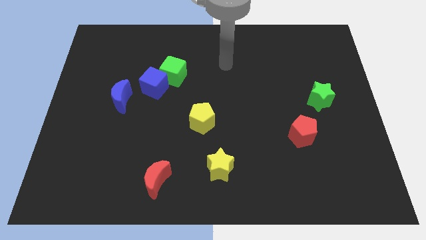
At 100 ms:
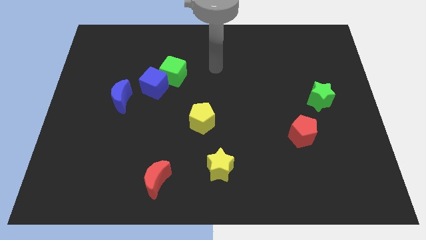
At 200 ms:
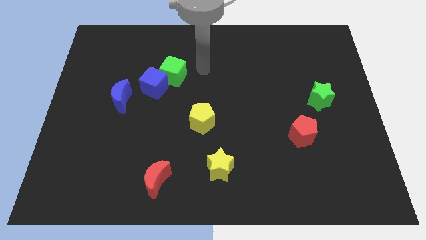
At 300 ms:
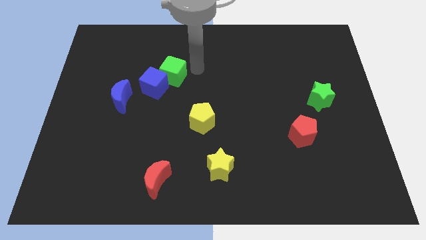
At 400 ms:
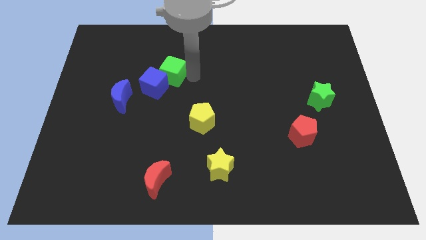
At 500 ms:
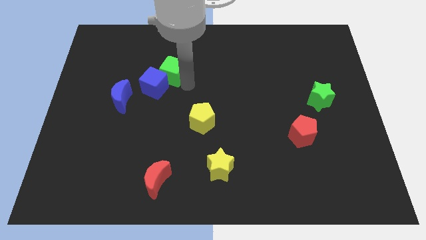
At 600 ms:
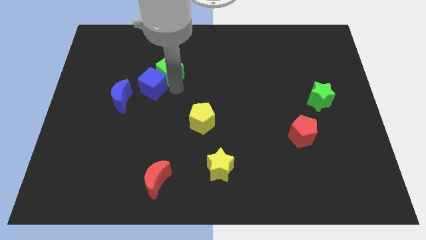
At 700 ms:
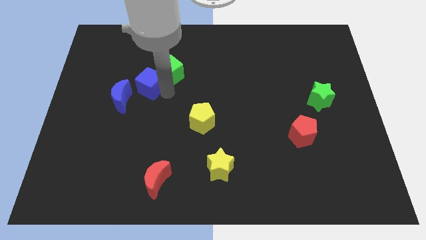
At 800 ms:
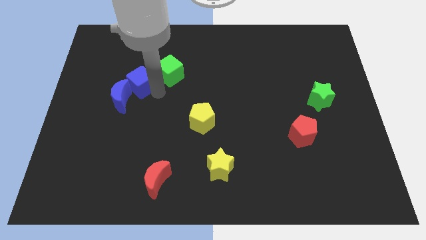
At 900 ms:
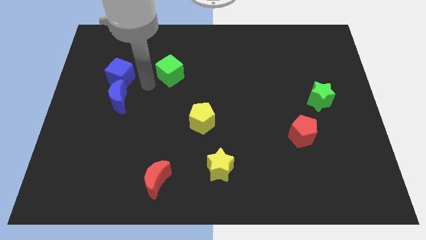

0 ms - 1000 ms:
move the green cube away from the blue cube

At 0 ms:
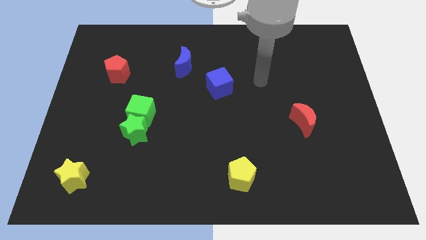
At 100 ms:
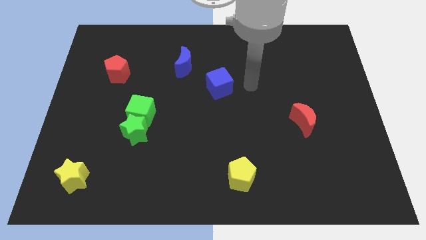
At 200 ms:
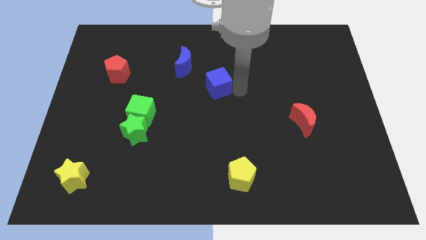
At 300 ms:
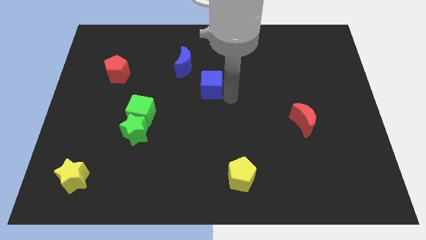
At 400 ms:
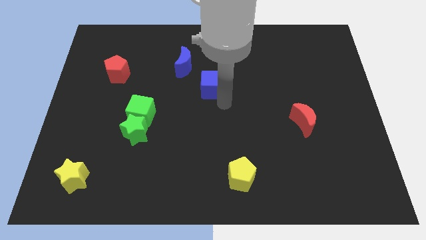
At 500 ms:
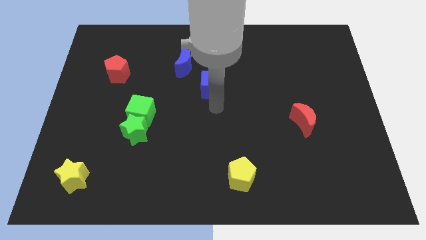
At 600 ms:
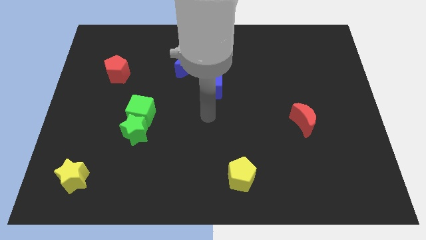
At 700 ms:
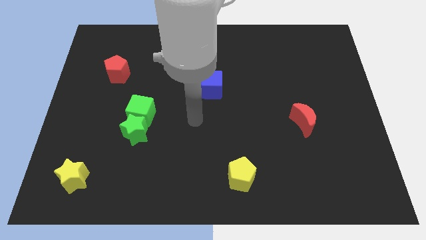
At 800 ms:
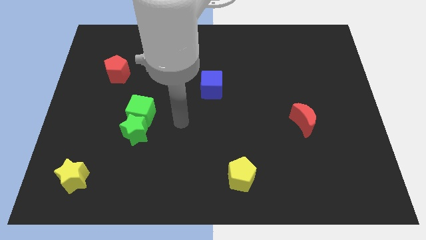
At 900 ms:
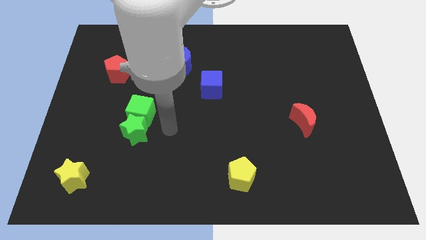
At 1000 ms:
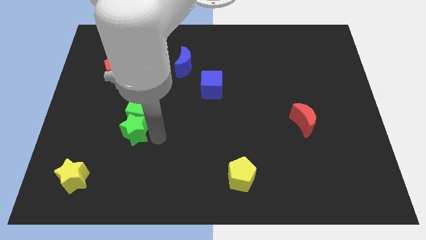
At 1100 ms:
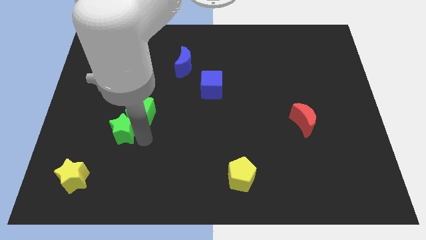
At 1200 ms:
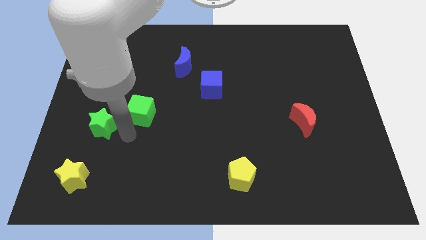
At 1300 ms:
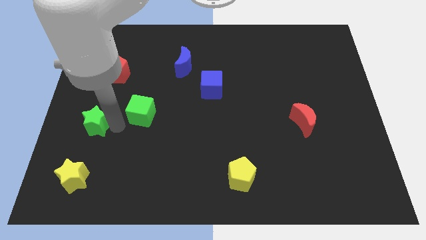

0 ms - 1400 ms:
pull the green cube apart from the green star

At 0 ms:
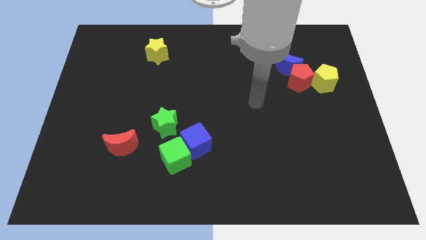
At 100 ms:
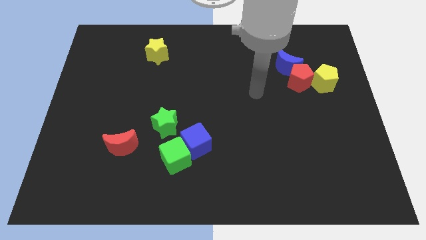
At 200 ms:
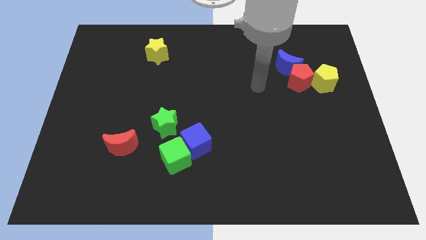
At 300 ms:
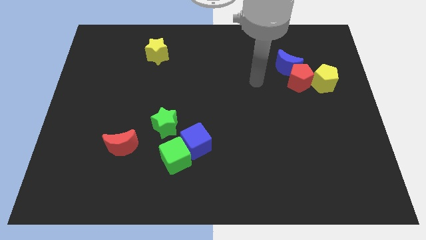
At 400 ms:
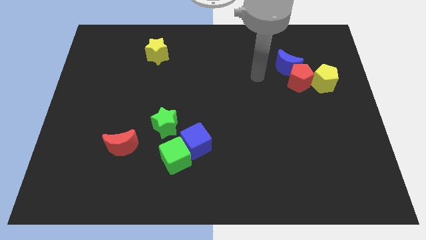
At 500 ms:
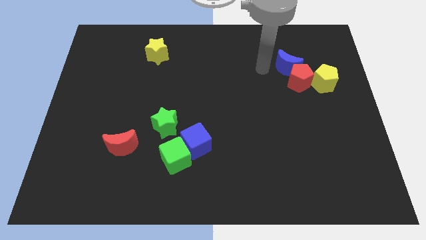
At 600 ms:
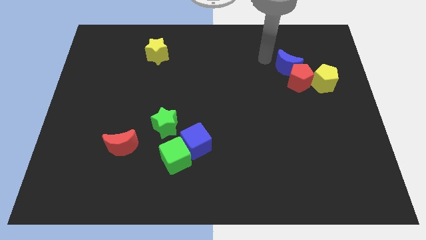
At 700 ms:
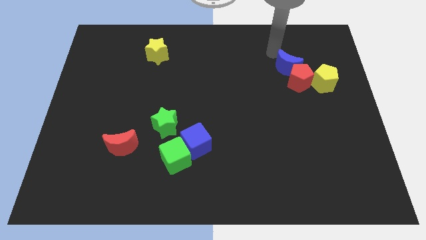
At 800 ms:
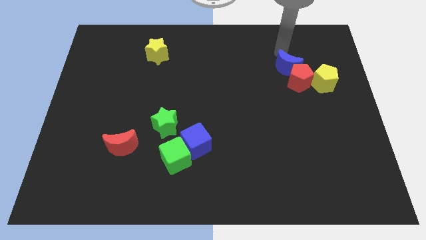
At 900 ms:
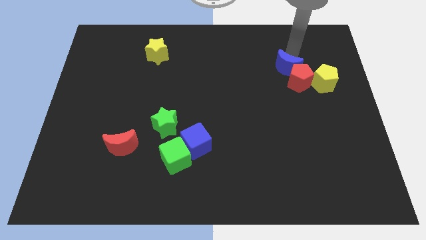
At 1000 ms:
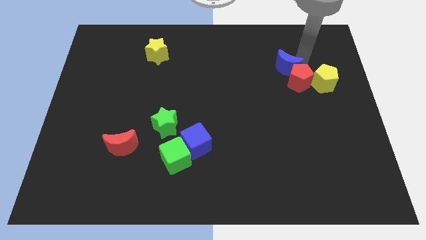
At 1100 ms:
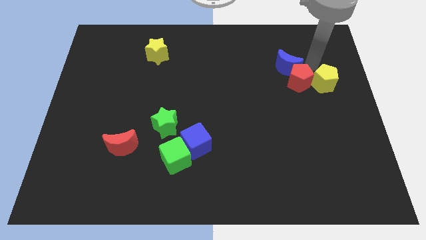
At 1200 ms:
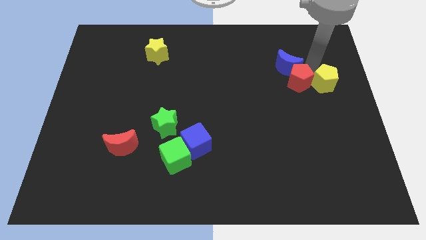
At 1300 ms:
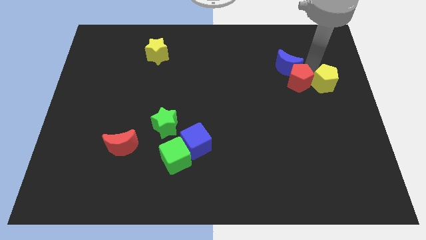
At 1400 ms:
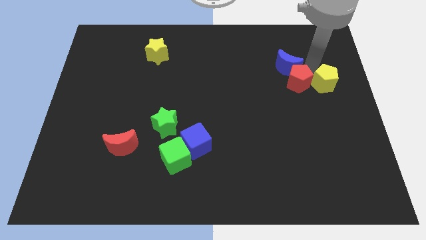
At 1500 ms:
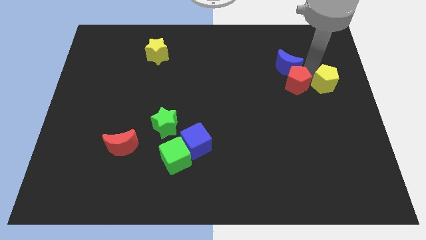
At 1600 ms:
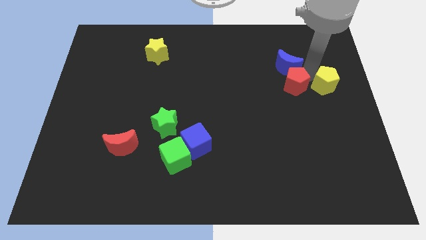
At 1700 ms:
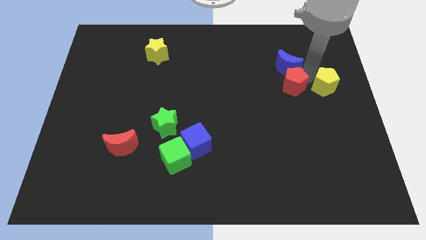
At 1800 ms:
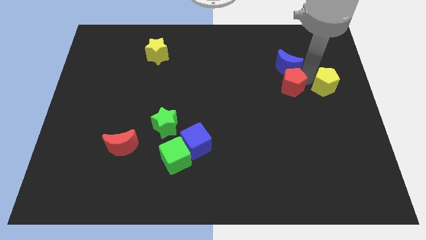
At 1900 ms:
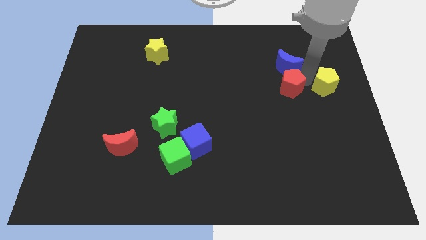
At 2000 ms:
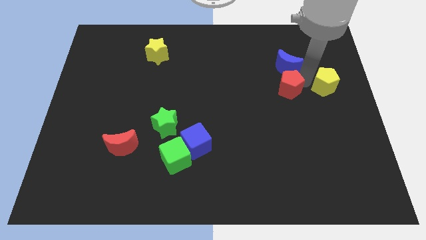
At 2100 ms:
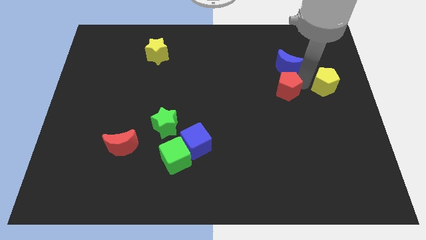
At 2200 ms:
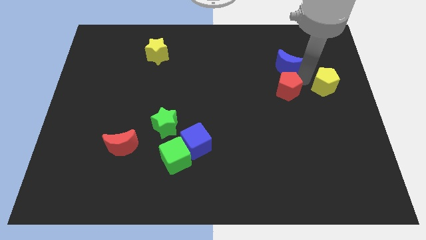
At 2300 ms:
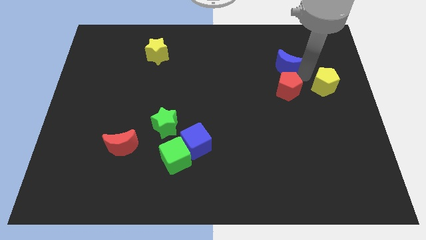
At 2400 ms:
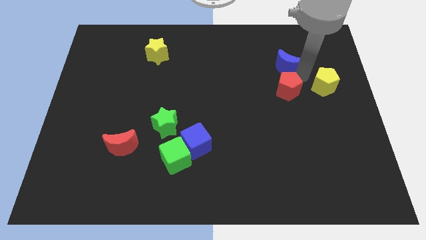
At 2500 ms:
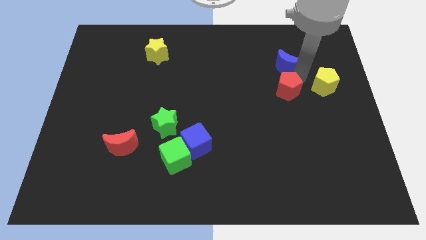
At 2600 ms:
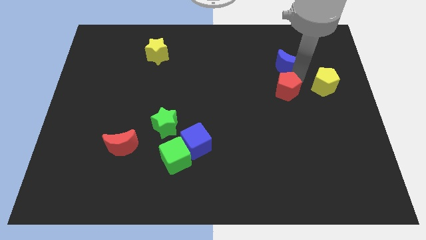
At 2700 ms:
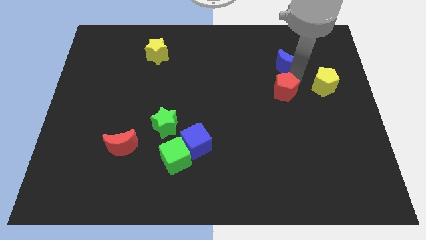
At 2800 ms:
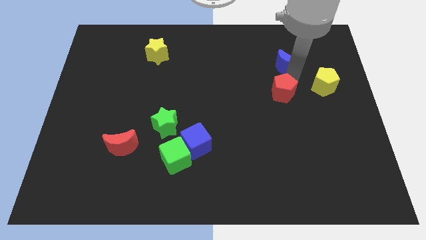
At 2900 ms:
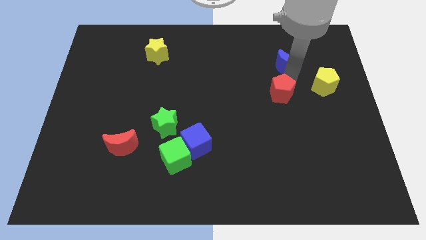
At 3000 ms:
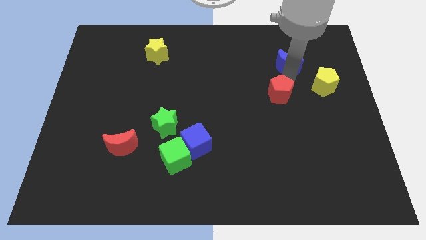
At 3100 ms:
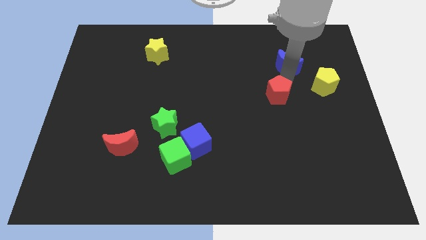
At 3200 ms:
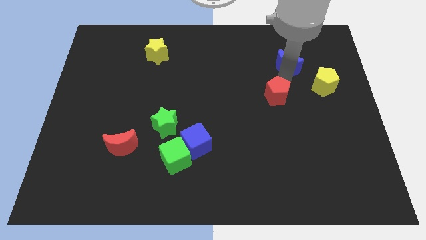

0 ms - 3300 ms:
separate the red pentagon from the blue moon and yellow pentagon

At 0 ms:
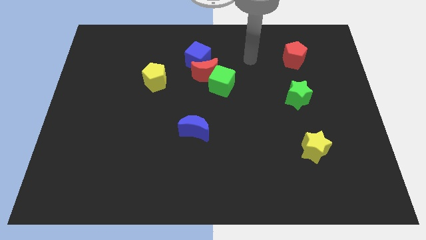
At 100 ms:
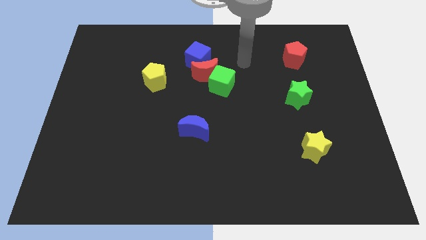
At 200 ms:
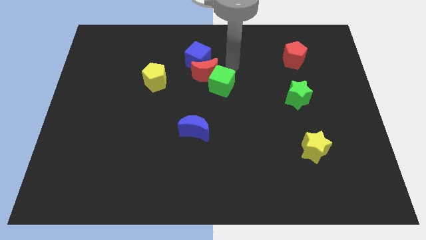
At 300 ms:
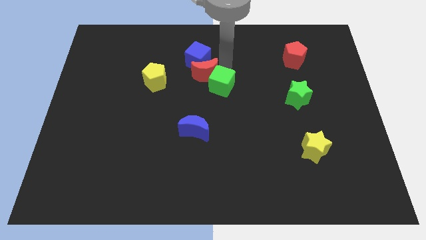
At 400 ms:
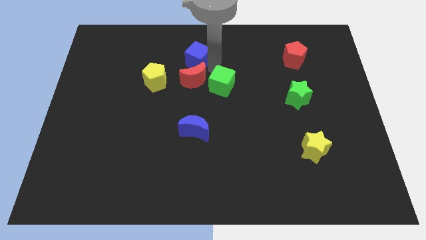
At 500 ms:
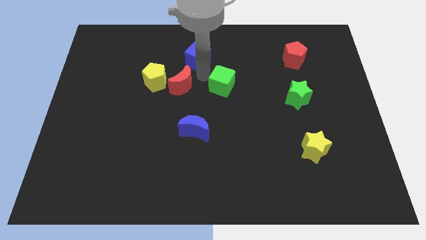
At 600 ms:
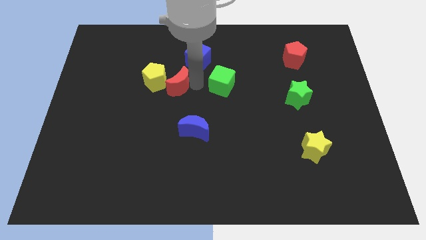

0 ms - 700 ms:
move the green cube away from the red moon

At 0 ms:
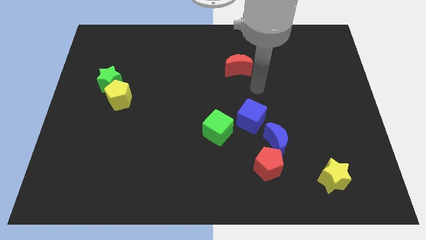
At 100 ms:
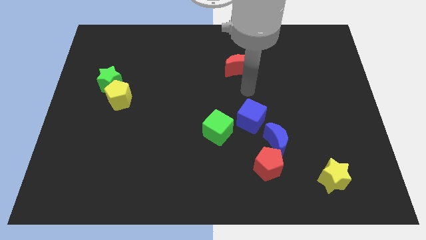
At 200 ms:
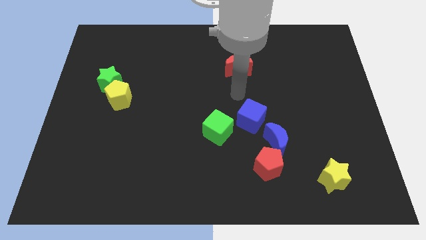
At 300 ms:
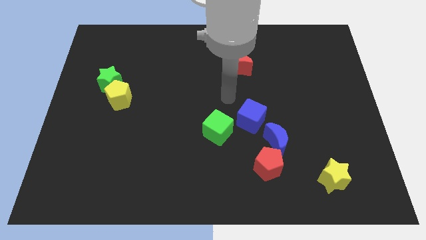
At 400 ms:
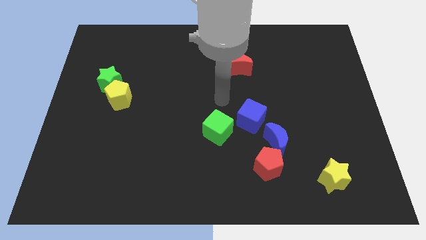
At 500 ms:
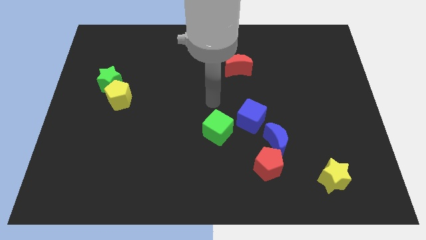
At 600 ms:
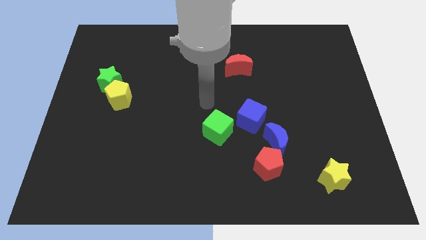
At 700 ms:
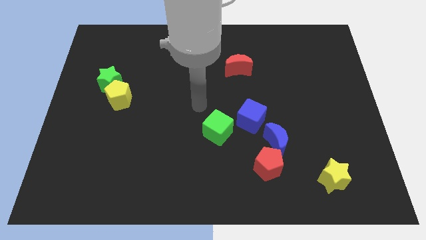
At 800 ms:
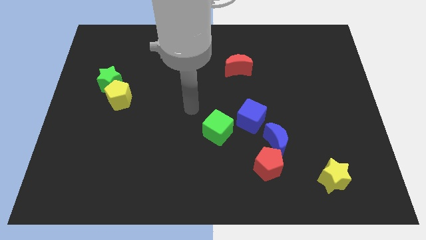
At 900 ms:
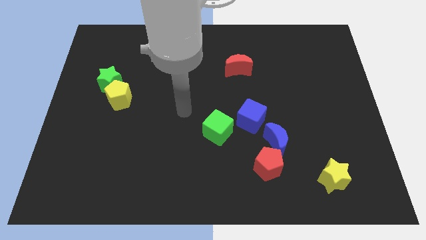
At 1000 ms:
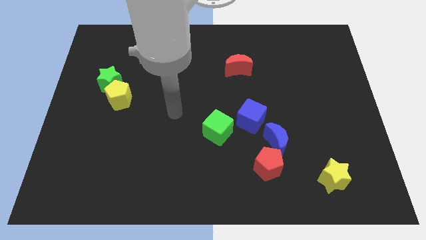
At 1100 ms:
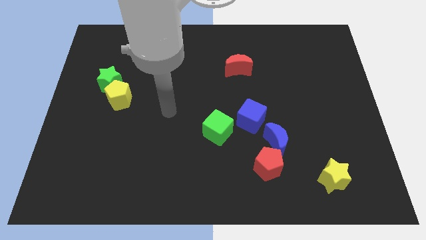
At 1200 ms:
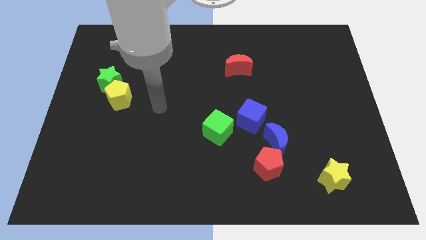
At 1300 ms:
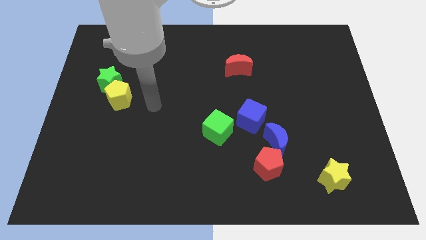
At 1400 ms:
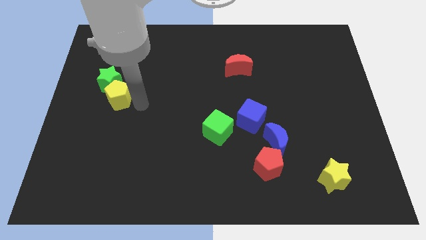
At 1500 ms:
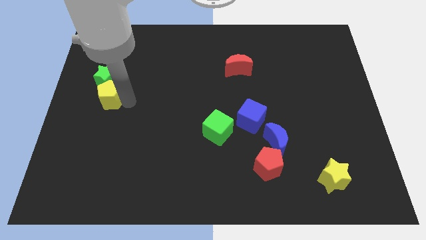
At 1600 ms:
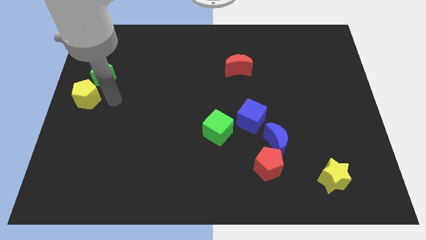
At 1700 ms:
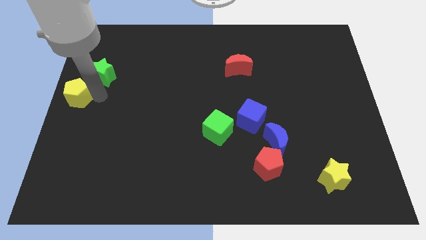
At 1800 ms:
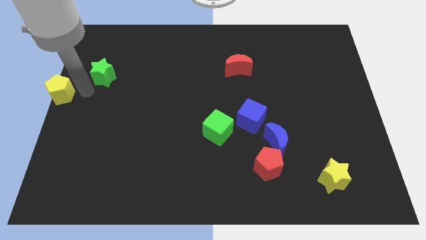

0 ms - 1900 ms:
move the green star away from the yellow pentagon

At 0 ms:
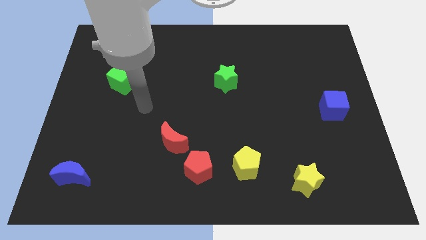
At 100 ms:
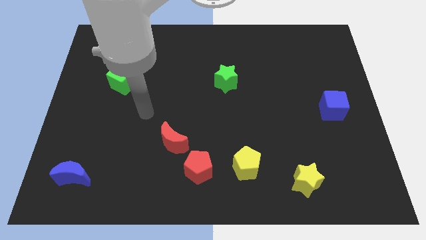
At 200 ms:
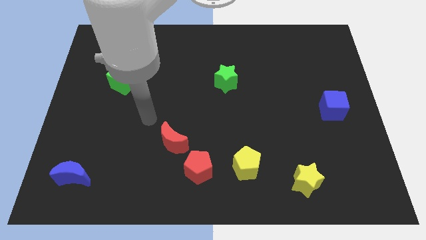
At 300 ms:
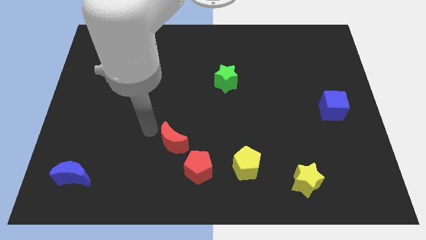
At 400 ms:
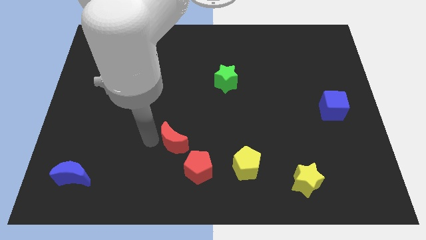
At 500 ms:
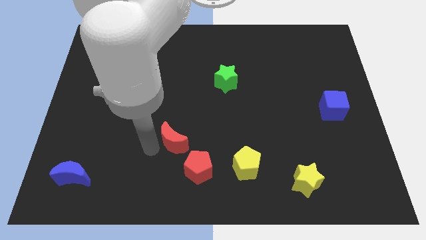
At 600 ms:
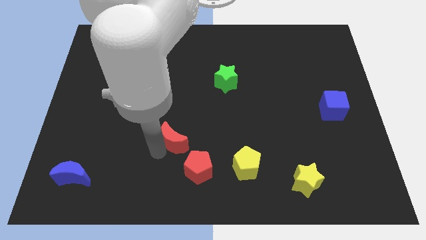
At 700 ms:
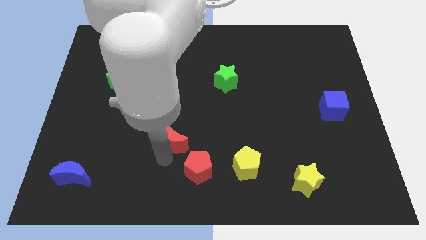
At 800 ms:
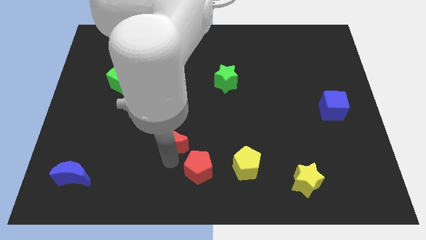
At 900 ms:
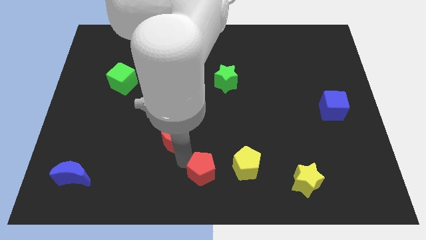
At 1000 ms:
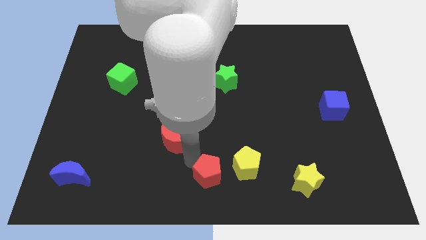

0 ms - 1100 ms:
separate the red moon from the red pentagon
